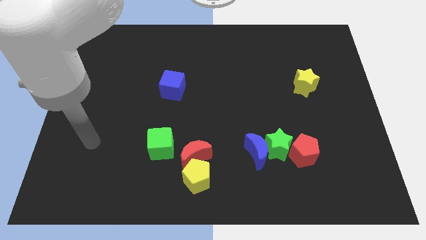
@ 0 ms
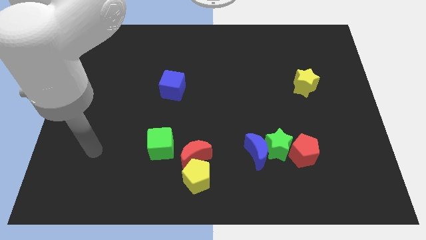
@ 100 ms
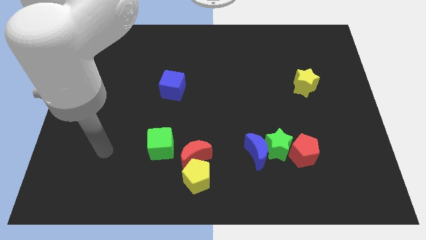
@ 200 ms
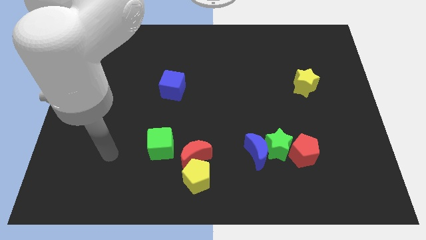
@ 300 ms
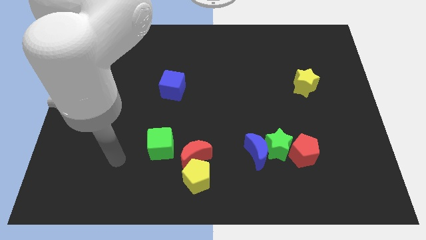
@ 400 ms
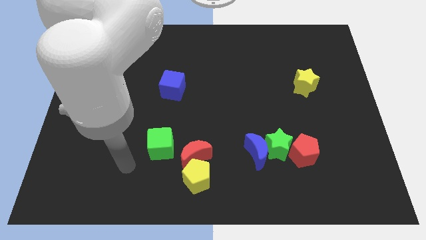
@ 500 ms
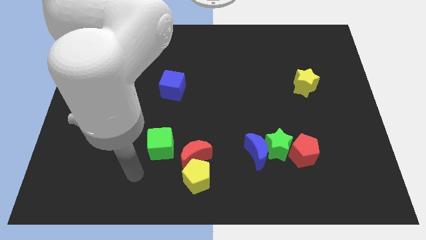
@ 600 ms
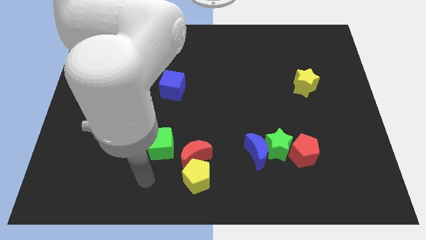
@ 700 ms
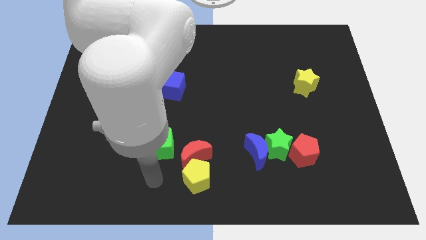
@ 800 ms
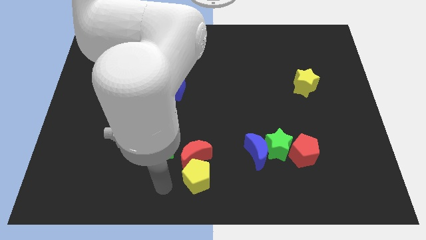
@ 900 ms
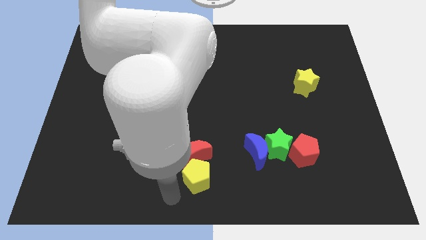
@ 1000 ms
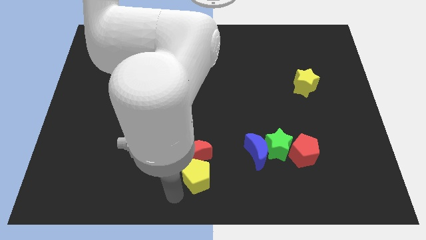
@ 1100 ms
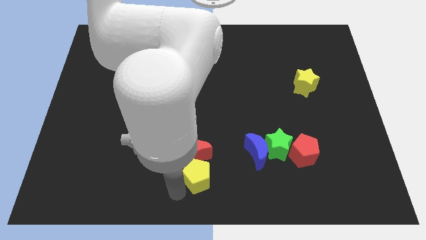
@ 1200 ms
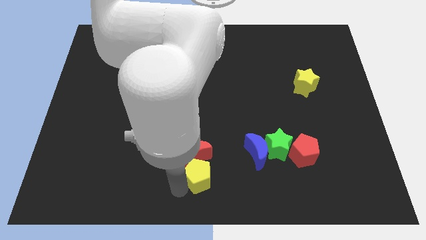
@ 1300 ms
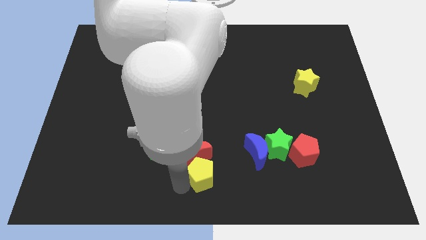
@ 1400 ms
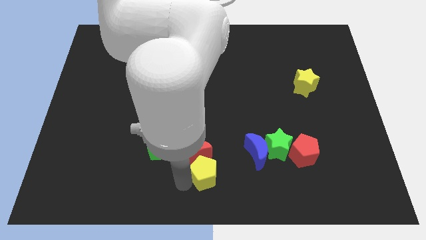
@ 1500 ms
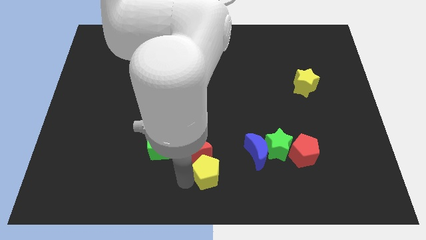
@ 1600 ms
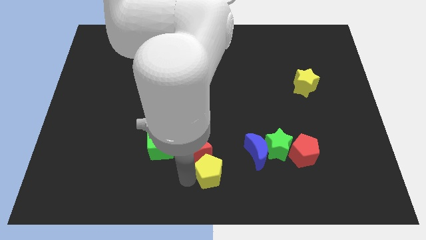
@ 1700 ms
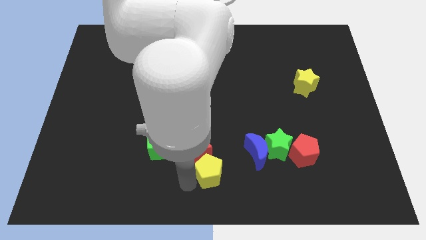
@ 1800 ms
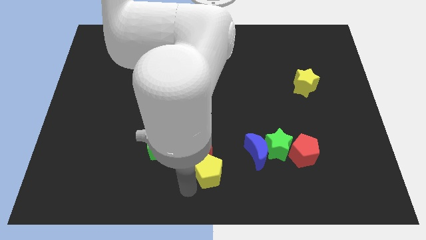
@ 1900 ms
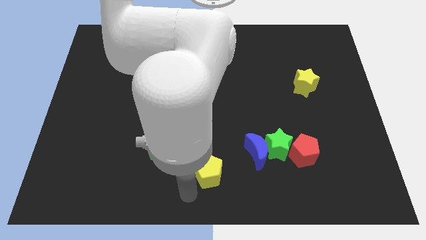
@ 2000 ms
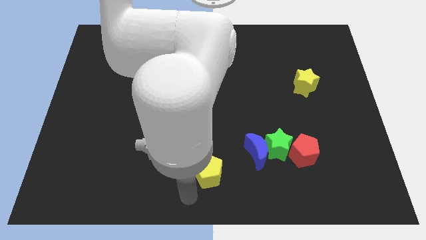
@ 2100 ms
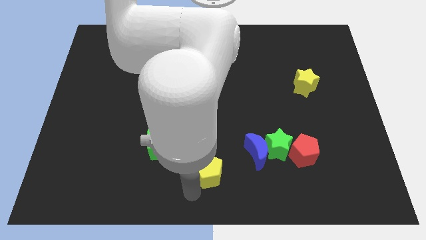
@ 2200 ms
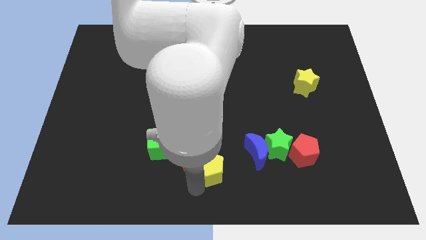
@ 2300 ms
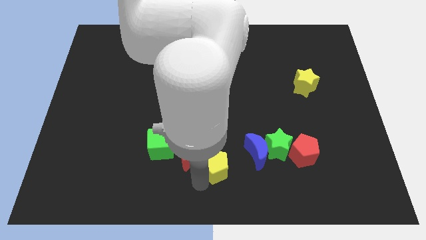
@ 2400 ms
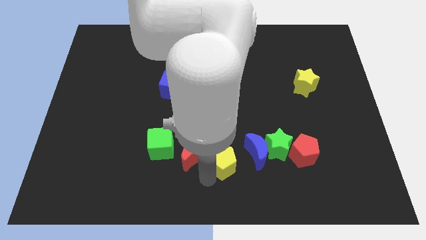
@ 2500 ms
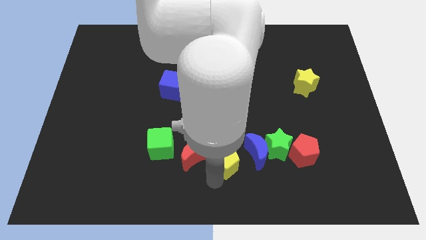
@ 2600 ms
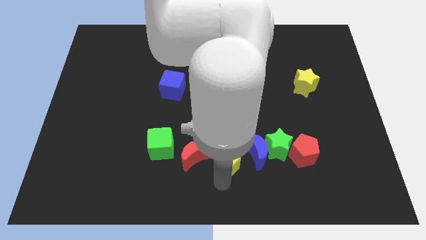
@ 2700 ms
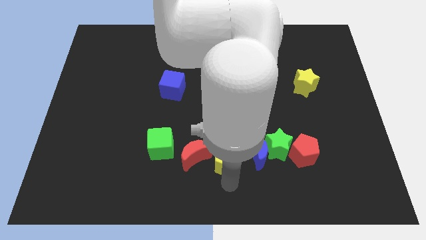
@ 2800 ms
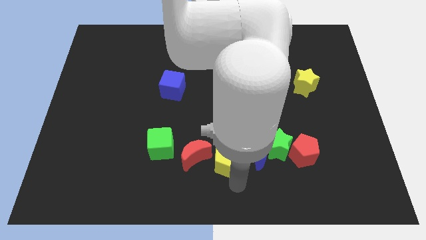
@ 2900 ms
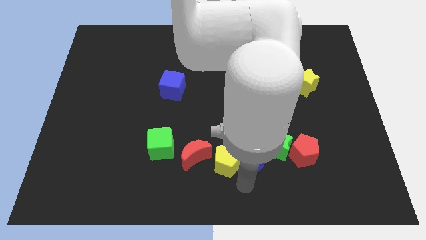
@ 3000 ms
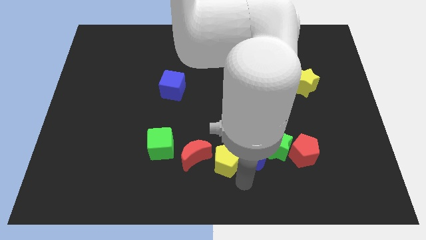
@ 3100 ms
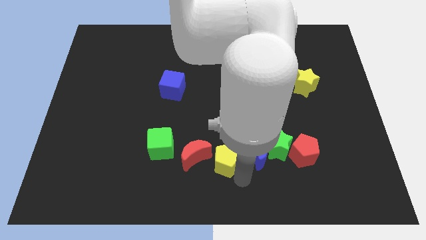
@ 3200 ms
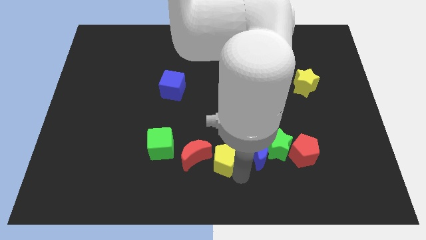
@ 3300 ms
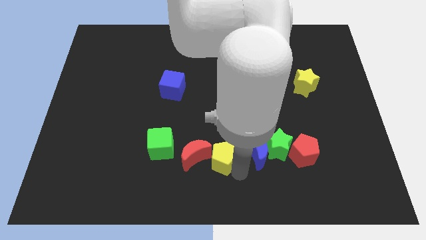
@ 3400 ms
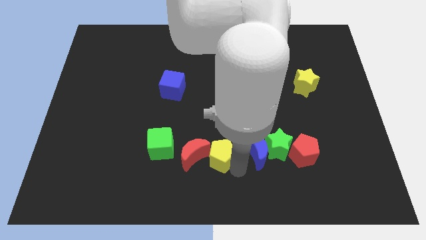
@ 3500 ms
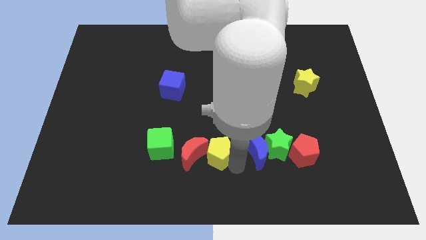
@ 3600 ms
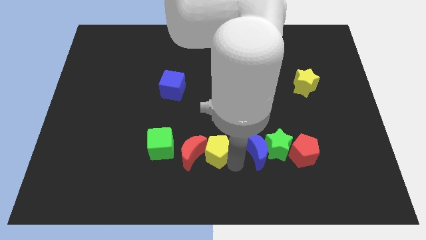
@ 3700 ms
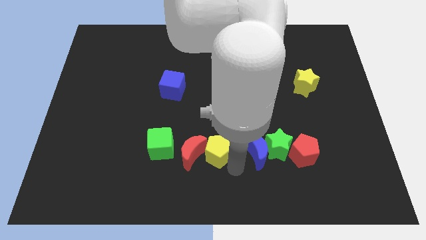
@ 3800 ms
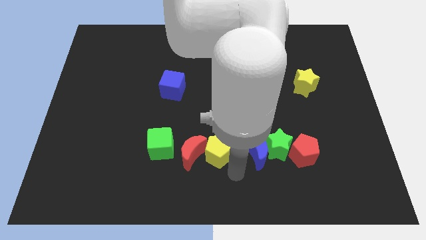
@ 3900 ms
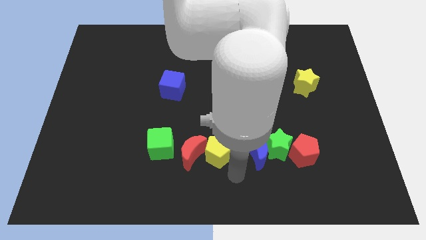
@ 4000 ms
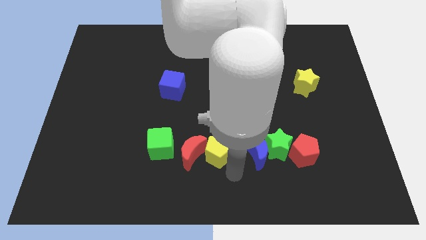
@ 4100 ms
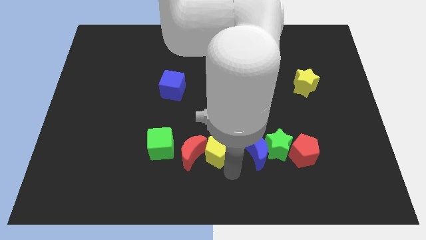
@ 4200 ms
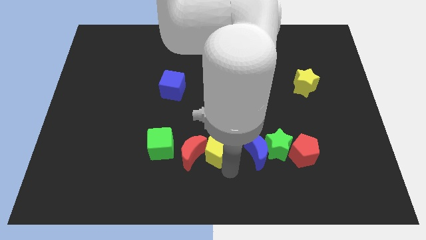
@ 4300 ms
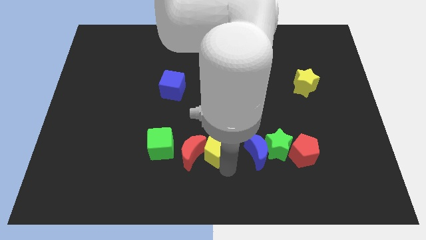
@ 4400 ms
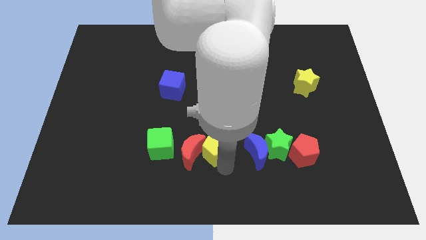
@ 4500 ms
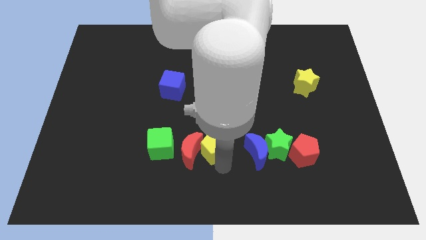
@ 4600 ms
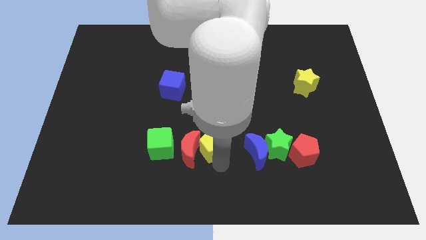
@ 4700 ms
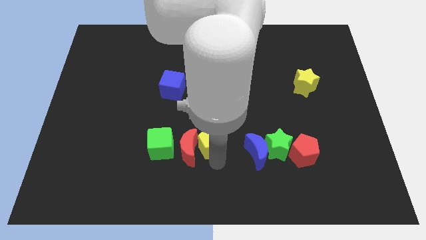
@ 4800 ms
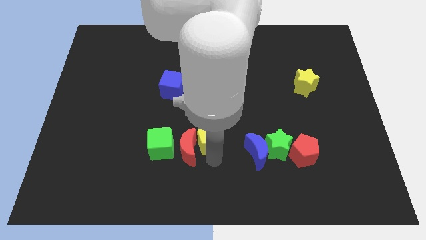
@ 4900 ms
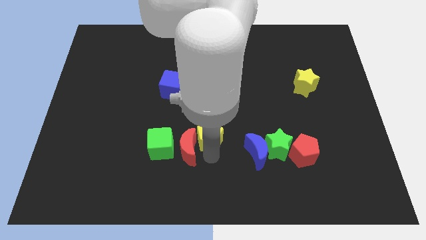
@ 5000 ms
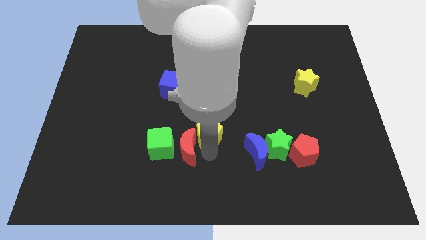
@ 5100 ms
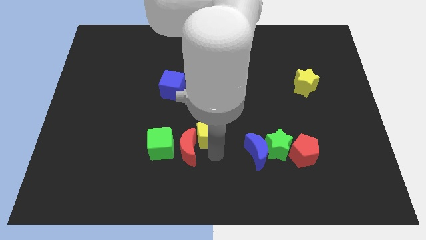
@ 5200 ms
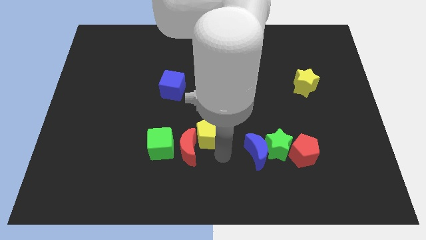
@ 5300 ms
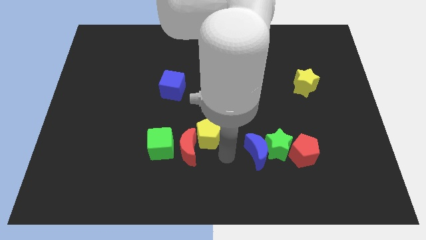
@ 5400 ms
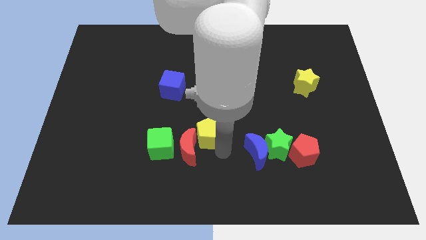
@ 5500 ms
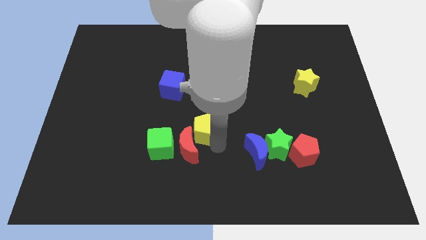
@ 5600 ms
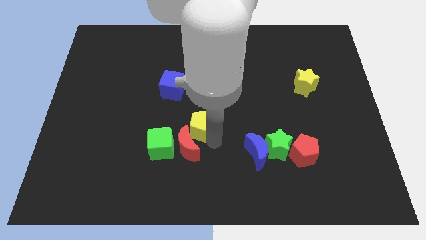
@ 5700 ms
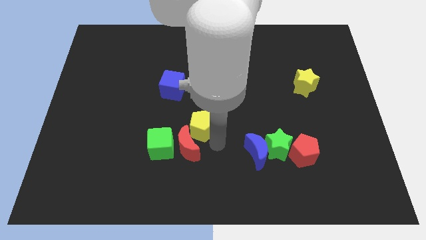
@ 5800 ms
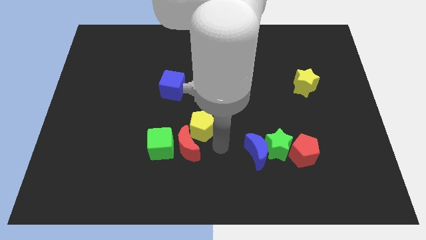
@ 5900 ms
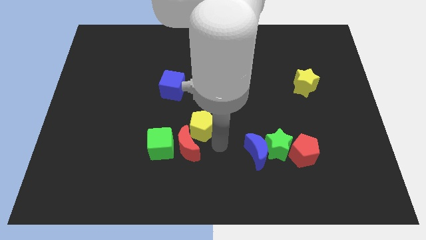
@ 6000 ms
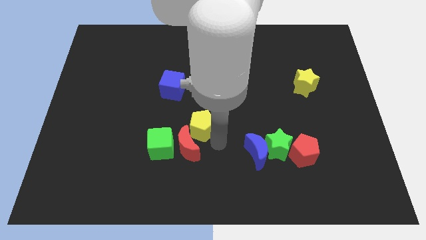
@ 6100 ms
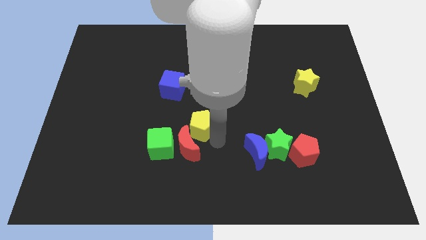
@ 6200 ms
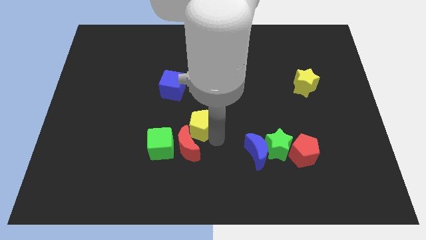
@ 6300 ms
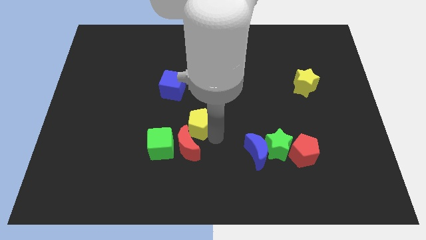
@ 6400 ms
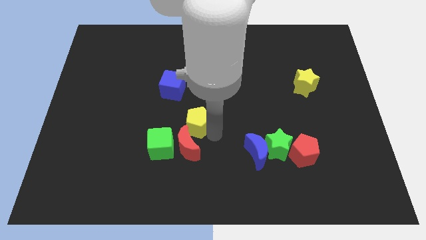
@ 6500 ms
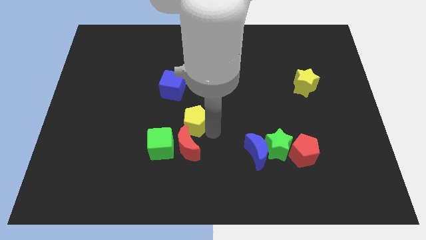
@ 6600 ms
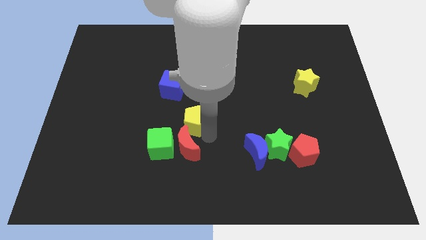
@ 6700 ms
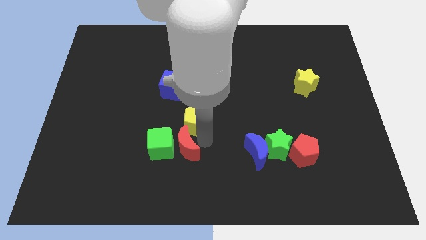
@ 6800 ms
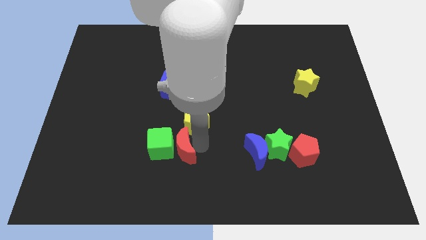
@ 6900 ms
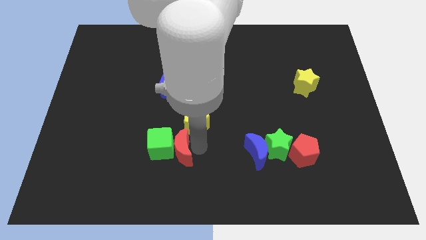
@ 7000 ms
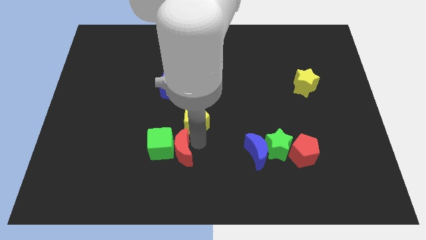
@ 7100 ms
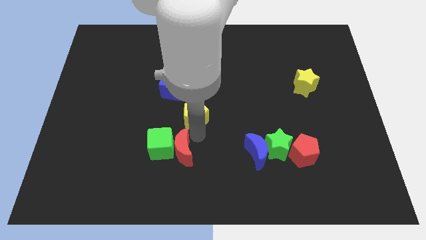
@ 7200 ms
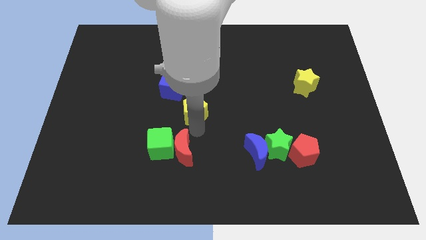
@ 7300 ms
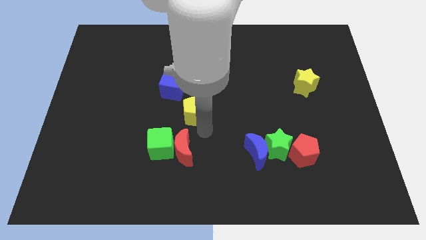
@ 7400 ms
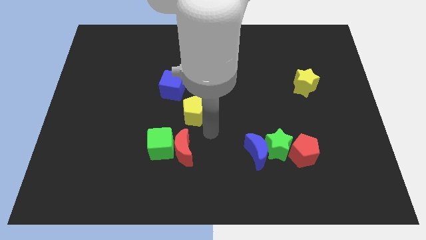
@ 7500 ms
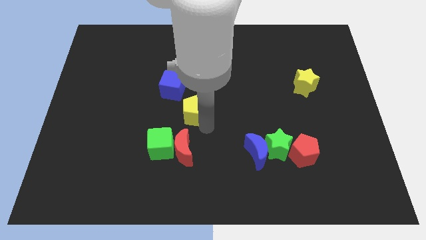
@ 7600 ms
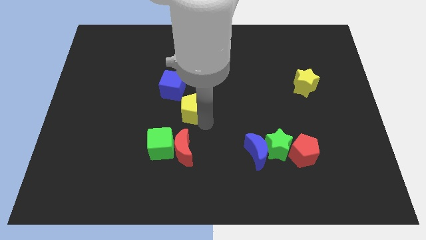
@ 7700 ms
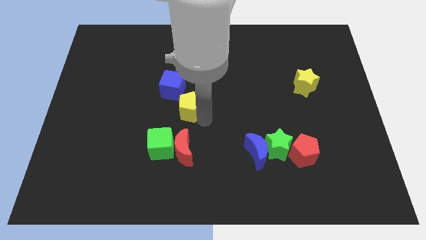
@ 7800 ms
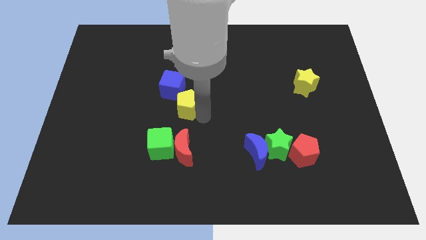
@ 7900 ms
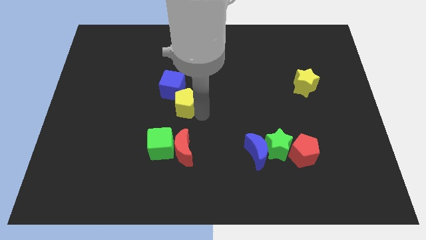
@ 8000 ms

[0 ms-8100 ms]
put the yellow pentagon close to the blue cube
